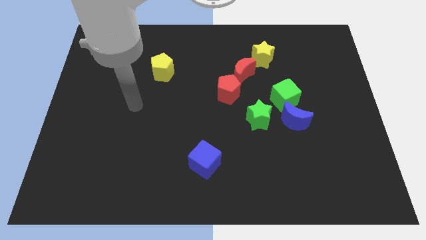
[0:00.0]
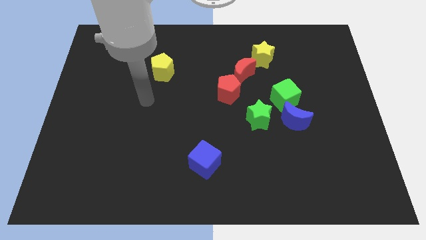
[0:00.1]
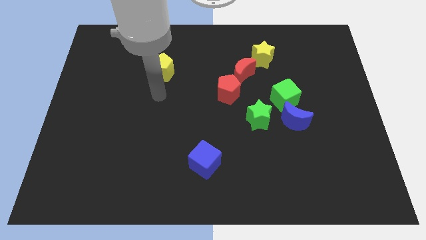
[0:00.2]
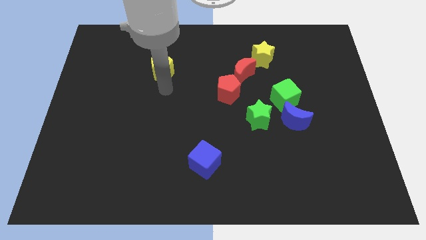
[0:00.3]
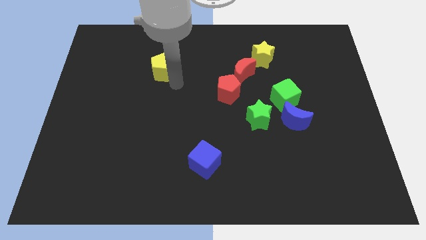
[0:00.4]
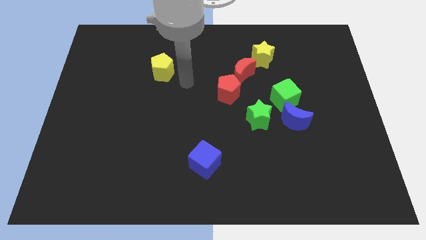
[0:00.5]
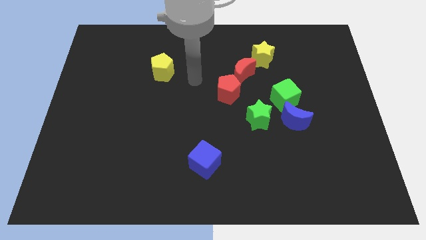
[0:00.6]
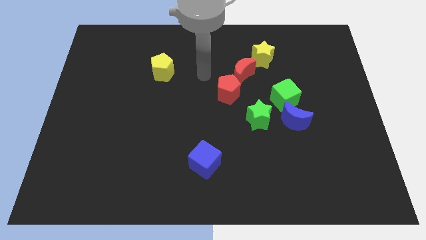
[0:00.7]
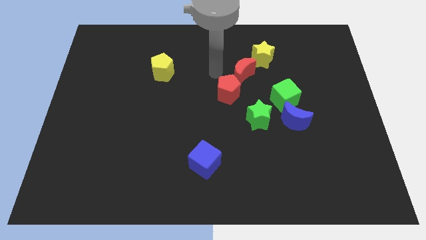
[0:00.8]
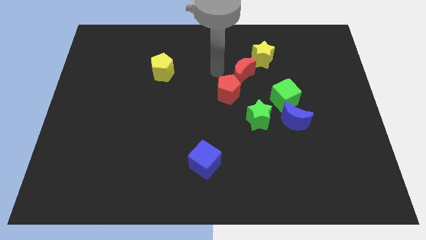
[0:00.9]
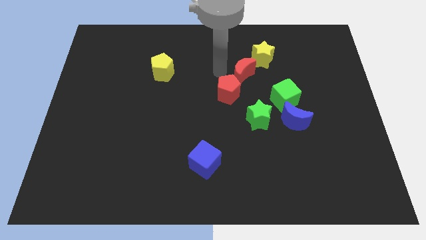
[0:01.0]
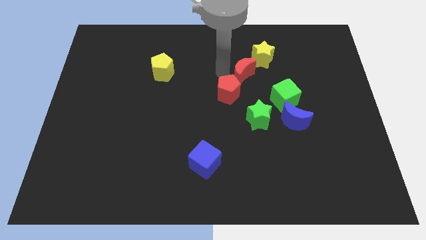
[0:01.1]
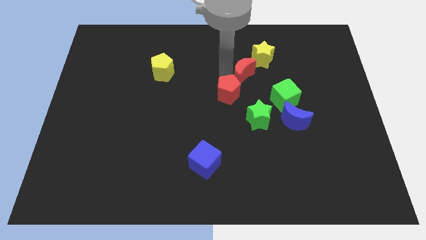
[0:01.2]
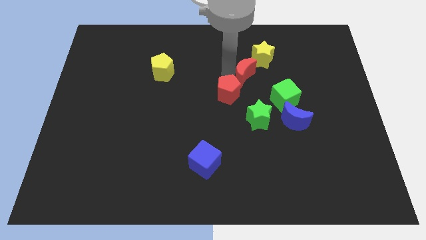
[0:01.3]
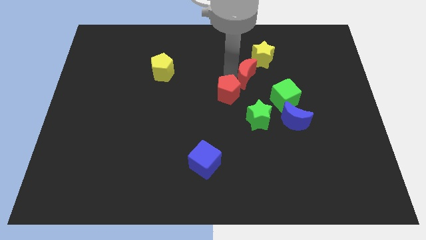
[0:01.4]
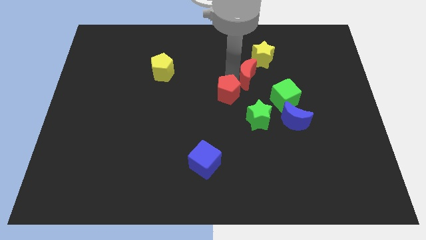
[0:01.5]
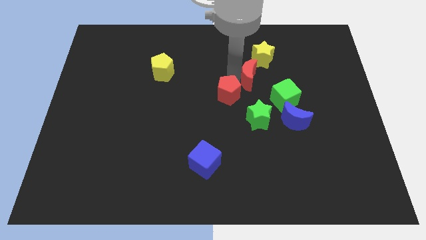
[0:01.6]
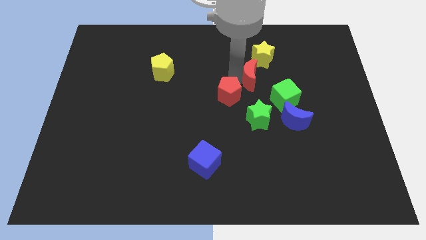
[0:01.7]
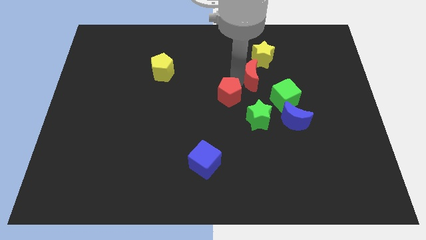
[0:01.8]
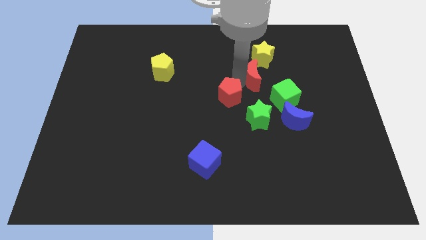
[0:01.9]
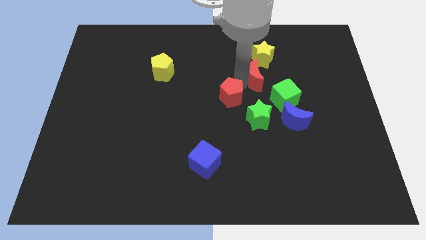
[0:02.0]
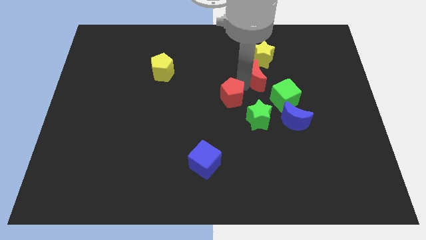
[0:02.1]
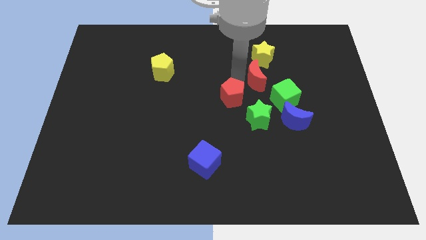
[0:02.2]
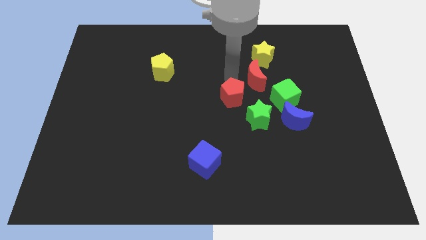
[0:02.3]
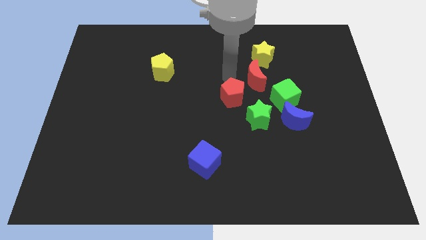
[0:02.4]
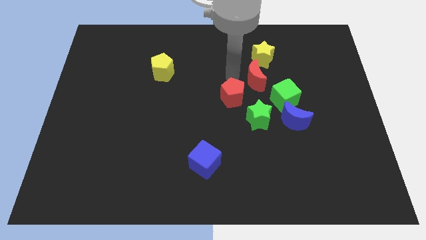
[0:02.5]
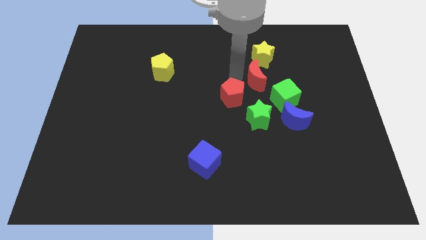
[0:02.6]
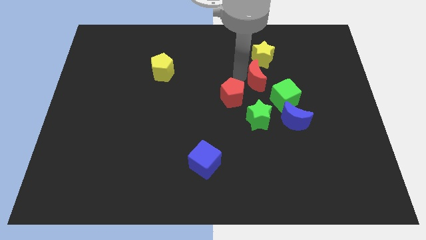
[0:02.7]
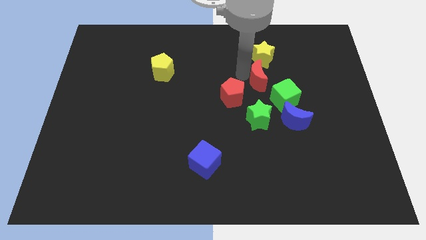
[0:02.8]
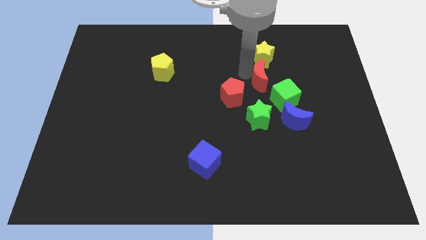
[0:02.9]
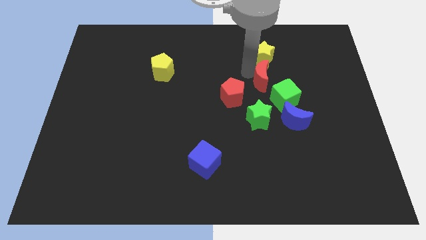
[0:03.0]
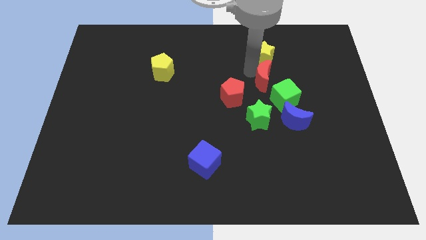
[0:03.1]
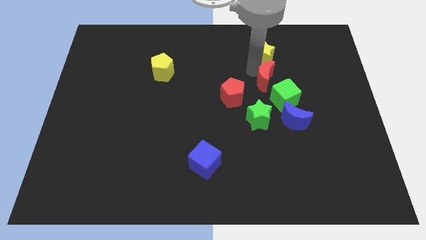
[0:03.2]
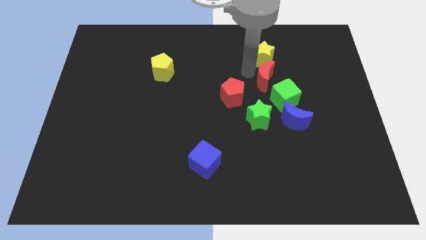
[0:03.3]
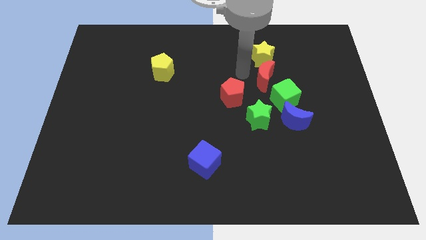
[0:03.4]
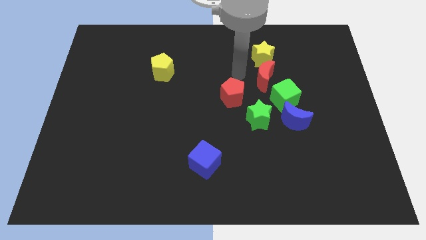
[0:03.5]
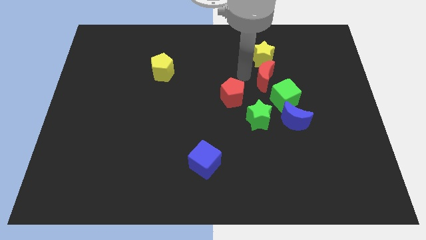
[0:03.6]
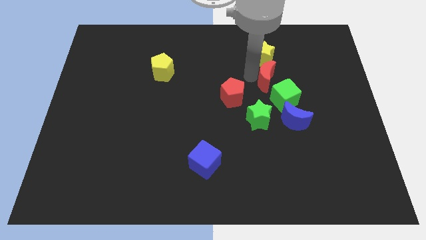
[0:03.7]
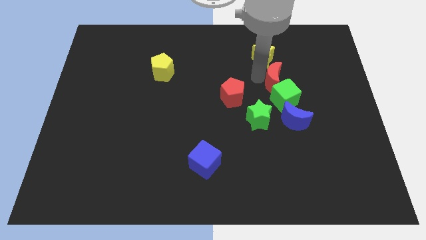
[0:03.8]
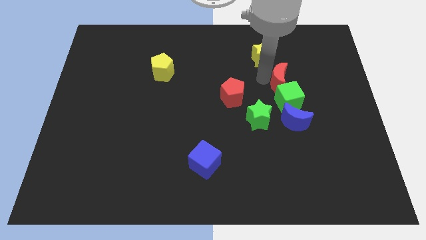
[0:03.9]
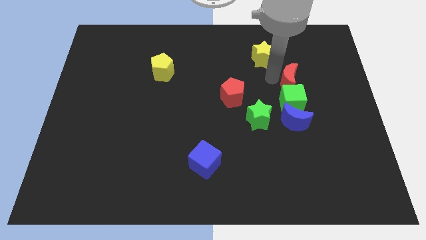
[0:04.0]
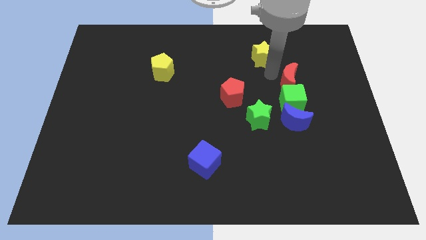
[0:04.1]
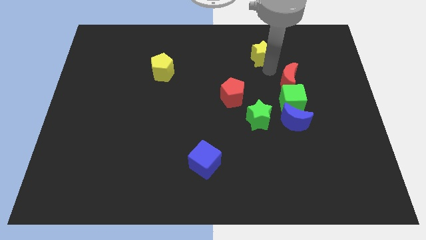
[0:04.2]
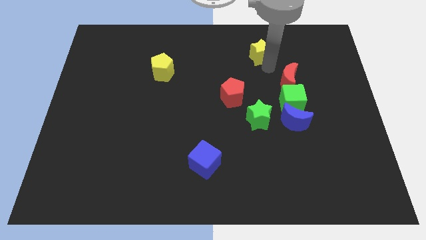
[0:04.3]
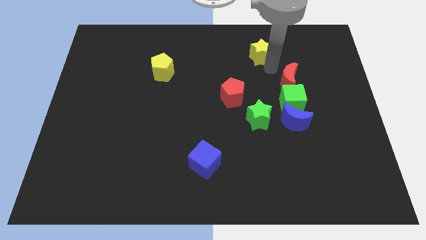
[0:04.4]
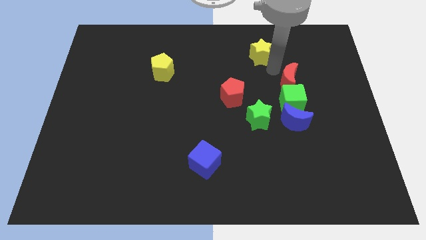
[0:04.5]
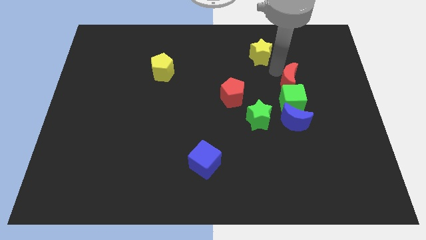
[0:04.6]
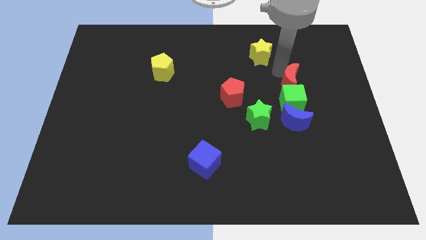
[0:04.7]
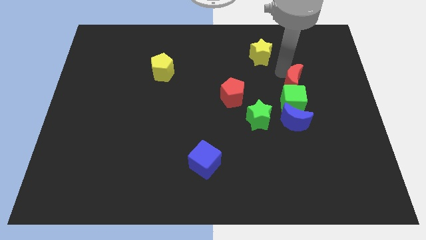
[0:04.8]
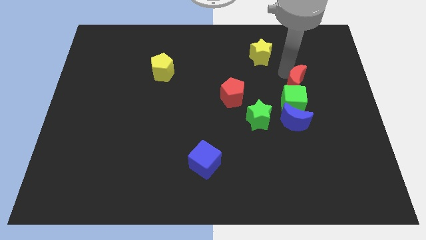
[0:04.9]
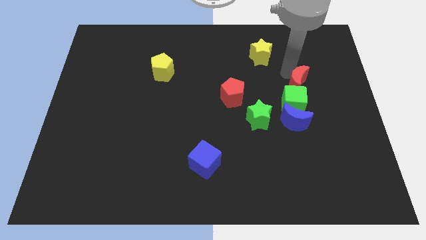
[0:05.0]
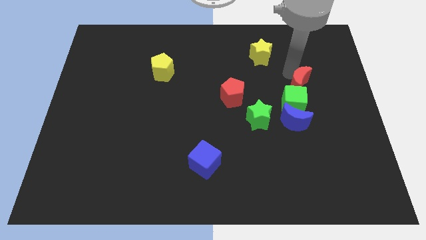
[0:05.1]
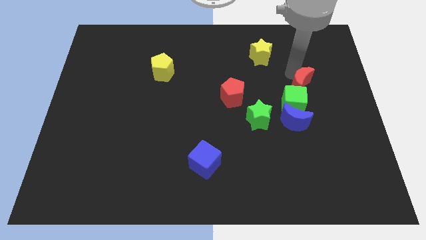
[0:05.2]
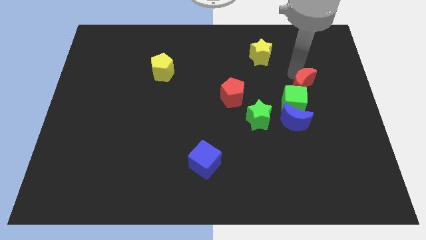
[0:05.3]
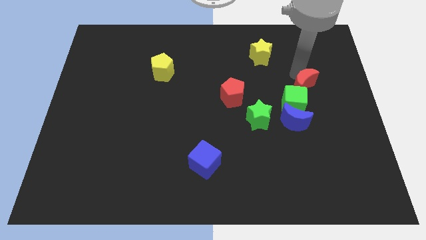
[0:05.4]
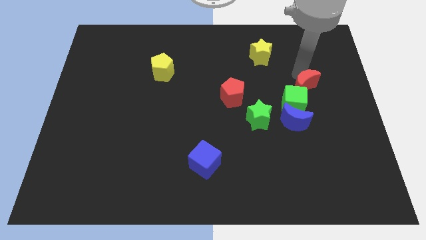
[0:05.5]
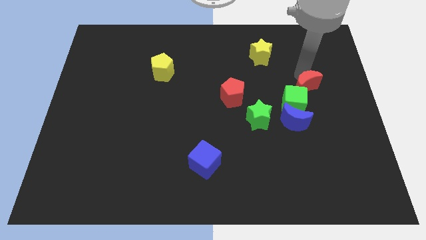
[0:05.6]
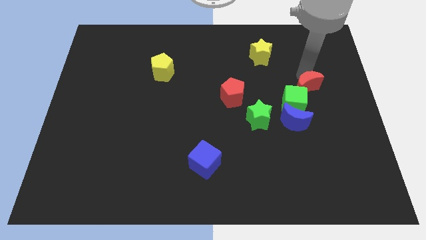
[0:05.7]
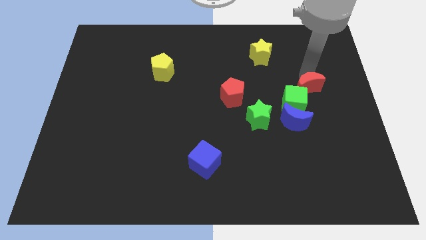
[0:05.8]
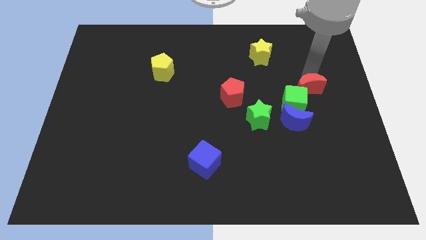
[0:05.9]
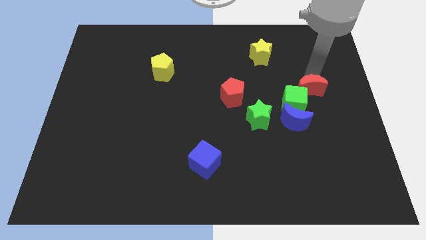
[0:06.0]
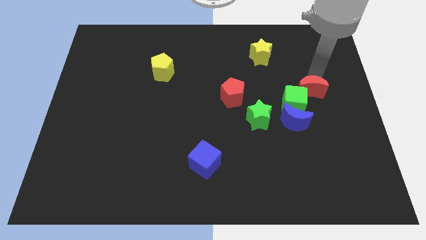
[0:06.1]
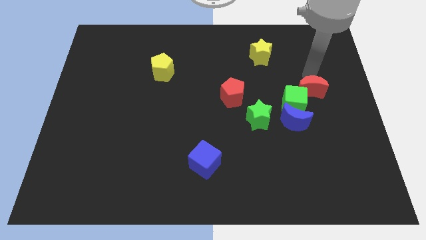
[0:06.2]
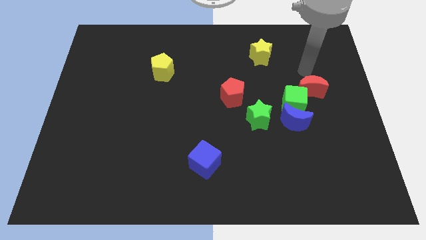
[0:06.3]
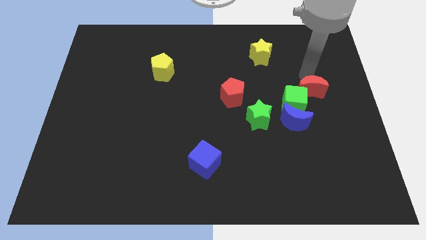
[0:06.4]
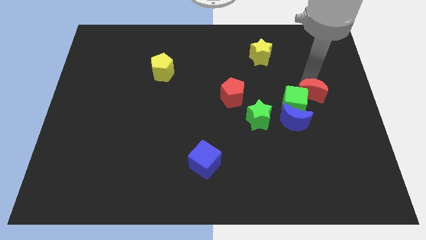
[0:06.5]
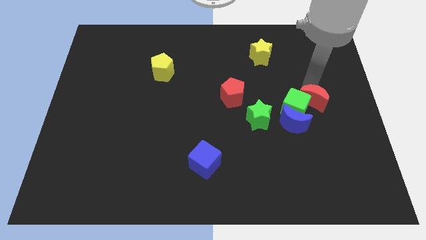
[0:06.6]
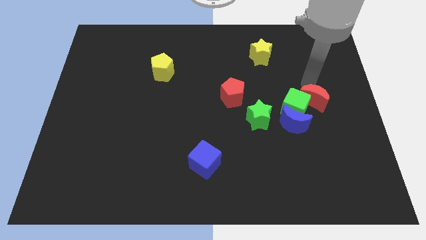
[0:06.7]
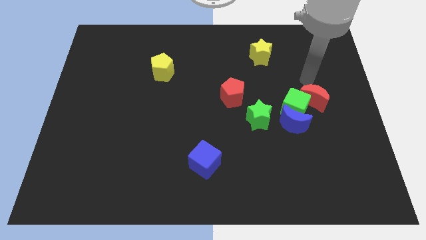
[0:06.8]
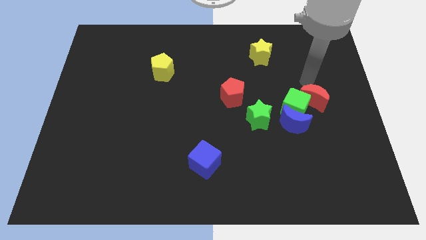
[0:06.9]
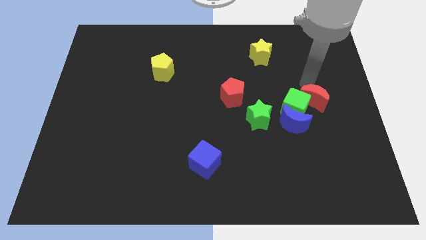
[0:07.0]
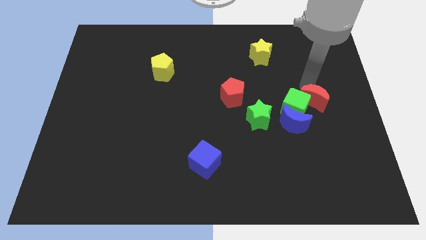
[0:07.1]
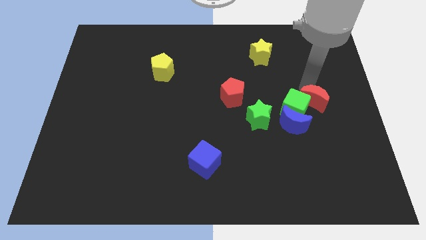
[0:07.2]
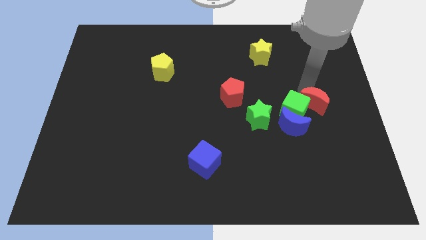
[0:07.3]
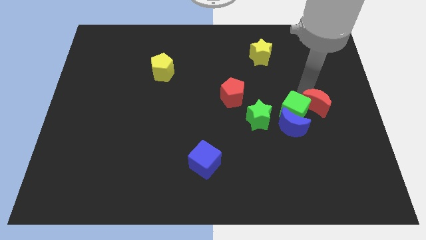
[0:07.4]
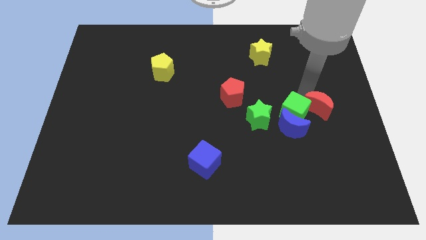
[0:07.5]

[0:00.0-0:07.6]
slide the red moon to the bottom right of the green cube
